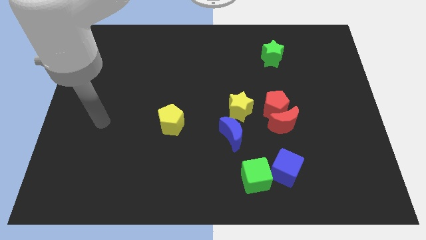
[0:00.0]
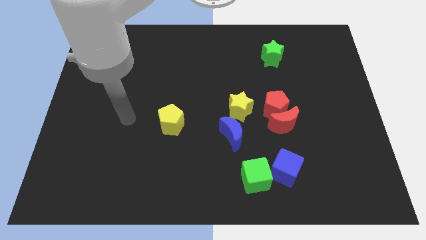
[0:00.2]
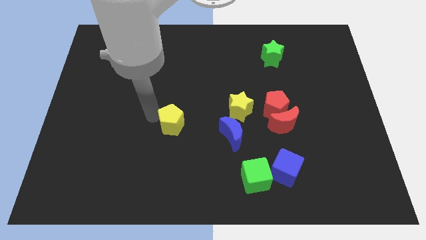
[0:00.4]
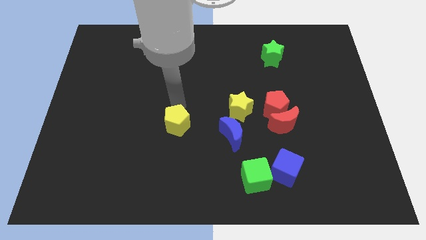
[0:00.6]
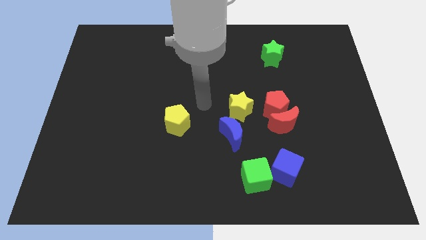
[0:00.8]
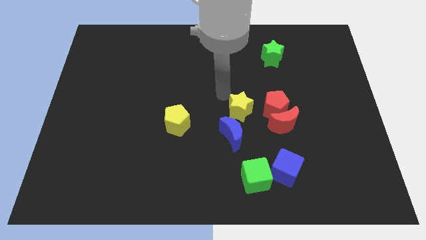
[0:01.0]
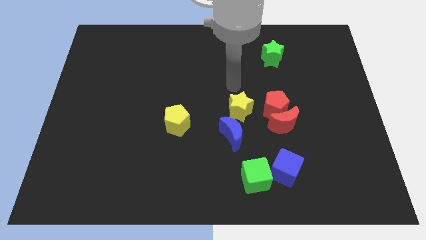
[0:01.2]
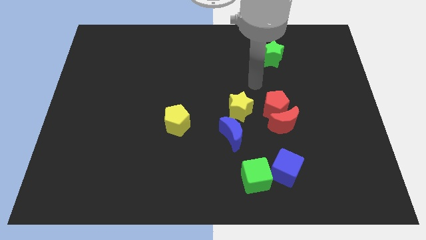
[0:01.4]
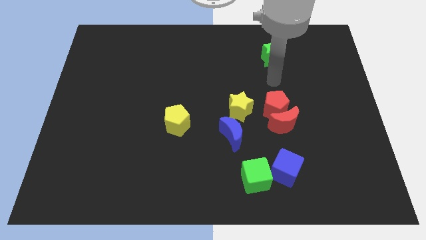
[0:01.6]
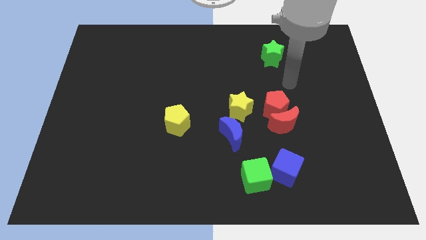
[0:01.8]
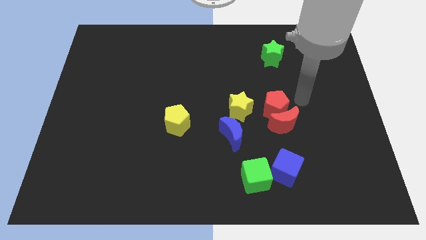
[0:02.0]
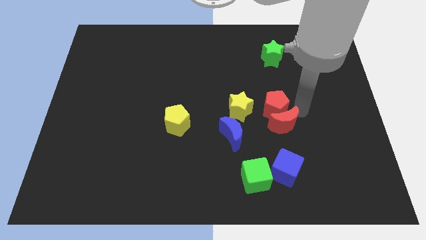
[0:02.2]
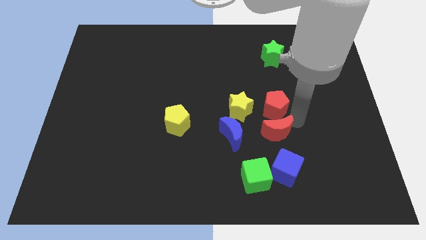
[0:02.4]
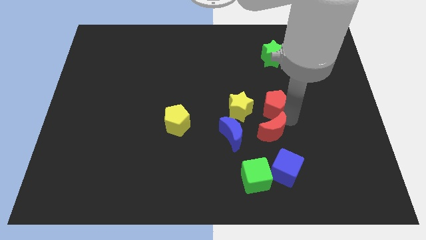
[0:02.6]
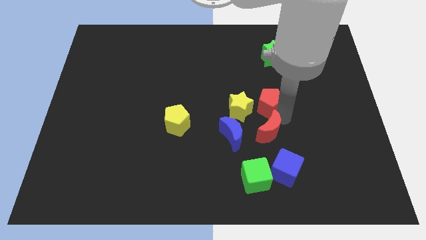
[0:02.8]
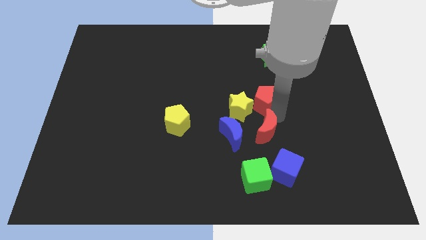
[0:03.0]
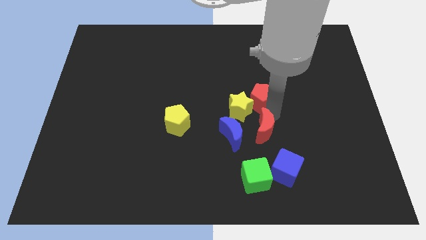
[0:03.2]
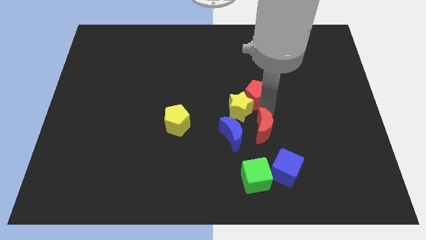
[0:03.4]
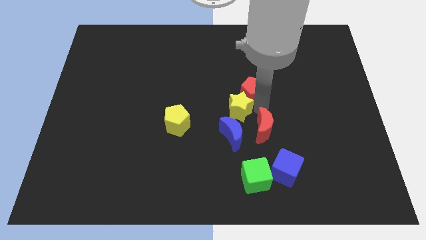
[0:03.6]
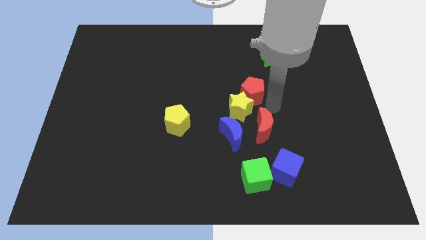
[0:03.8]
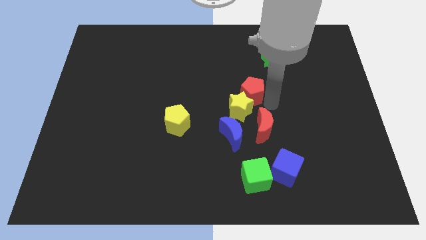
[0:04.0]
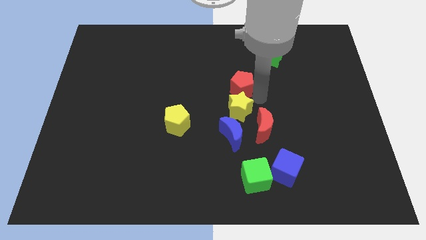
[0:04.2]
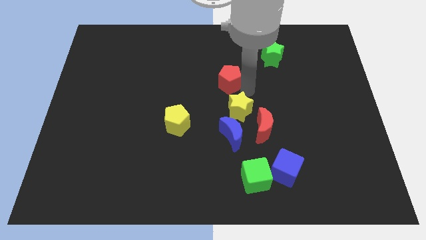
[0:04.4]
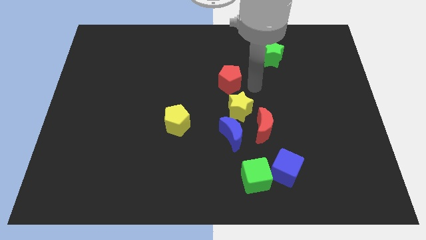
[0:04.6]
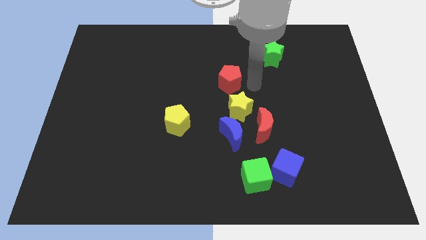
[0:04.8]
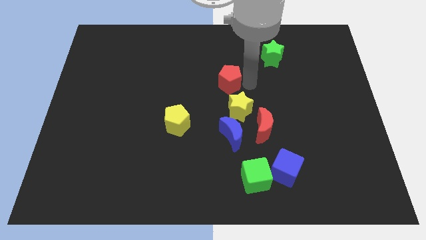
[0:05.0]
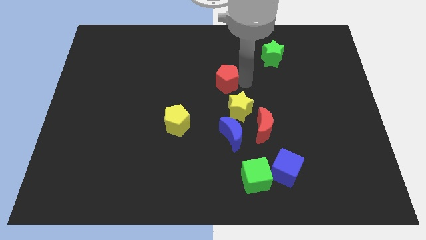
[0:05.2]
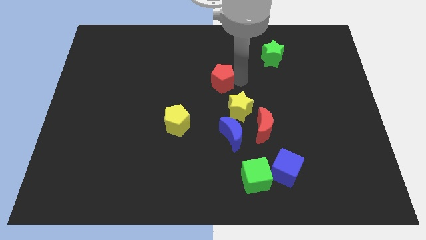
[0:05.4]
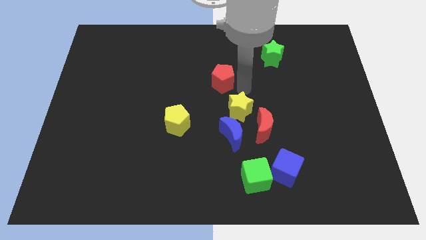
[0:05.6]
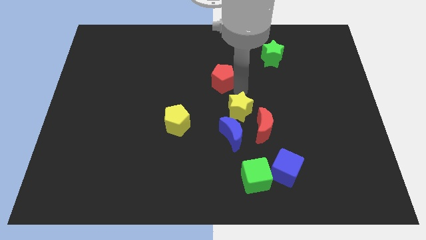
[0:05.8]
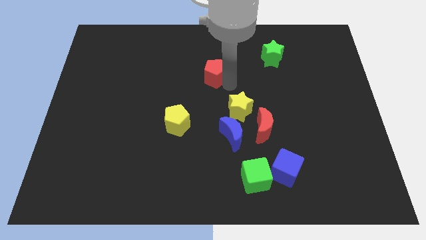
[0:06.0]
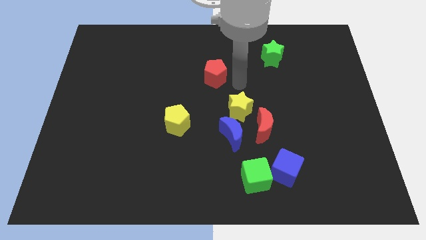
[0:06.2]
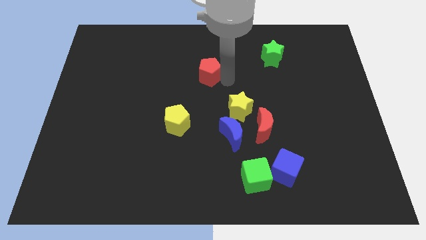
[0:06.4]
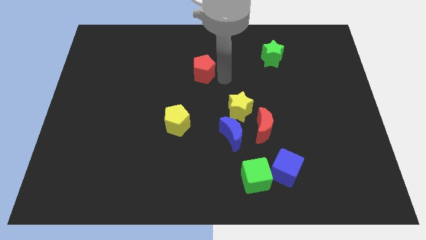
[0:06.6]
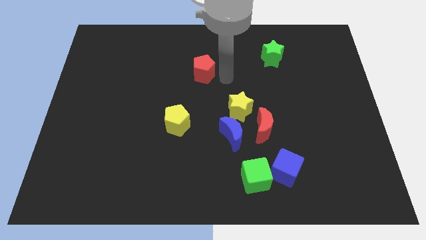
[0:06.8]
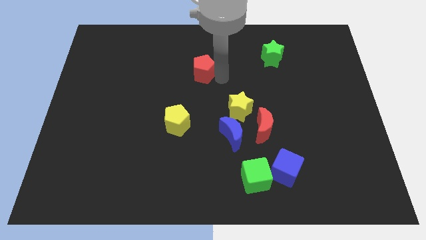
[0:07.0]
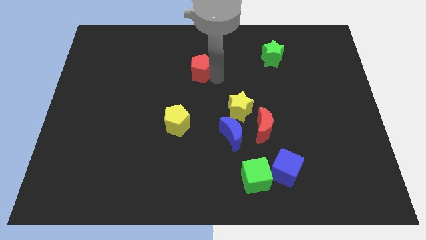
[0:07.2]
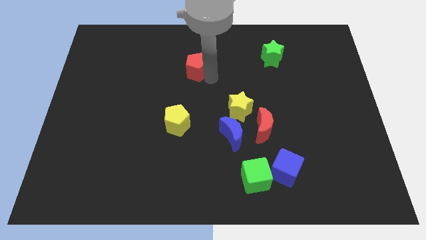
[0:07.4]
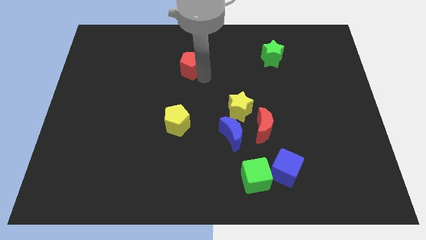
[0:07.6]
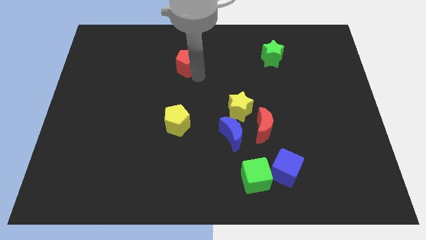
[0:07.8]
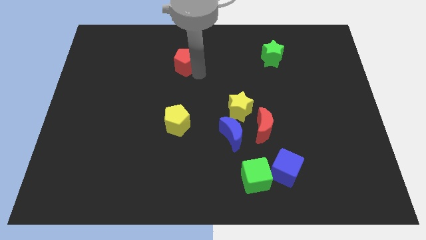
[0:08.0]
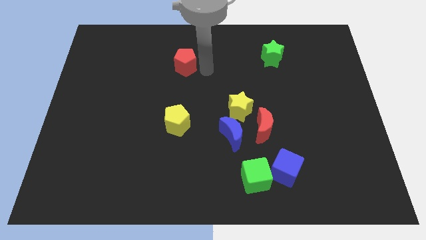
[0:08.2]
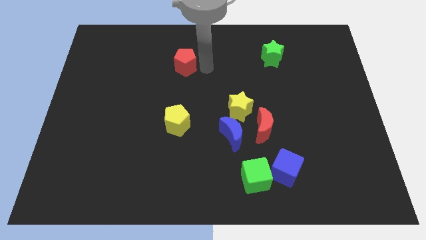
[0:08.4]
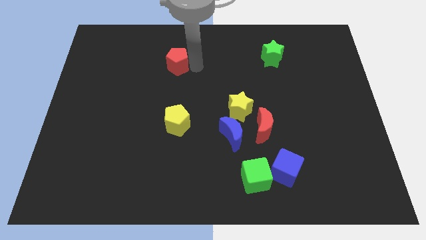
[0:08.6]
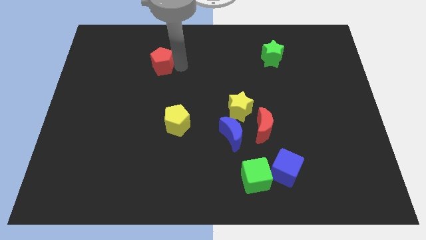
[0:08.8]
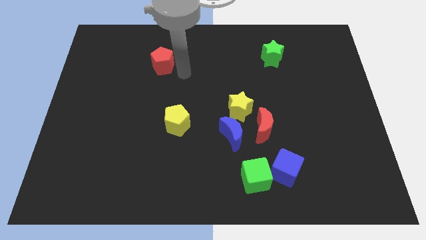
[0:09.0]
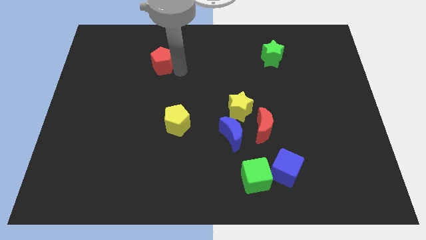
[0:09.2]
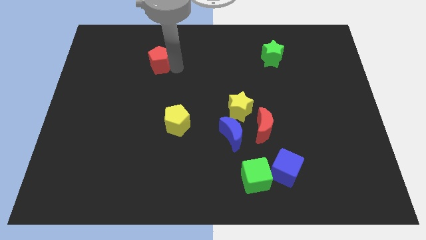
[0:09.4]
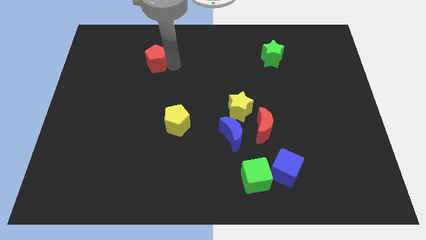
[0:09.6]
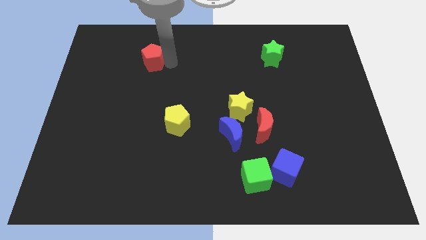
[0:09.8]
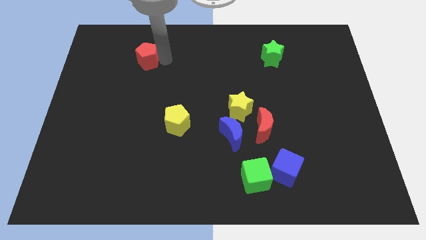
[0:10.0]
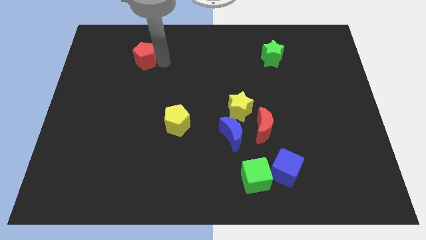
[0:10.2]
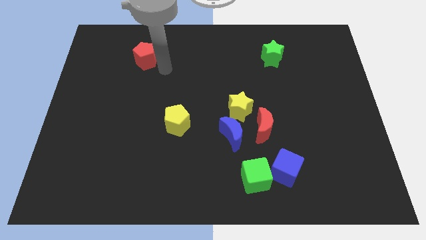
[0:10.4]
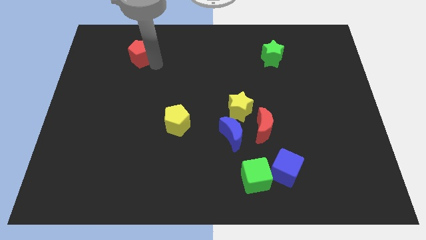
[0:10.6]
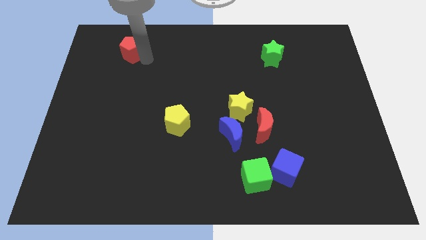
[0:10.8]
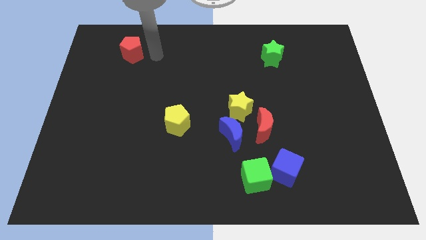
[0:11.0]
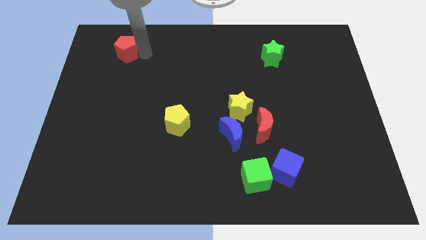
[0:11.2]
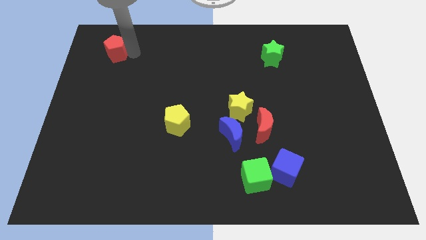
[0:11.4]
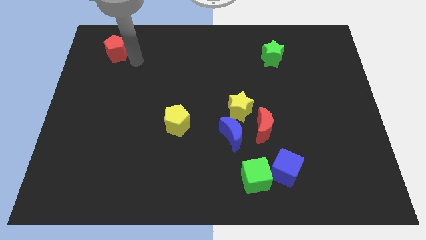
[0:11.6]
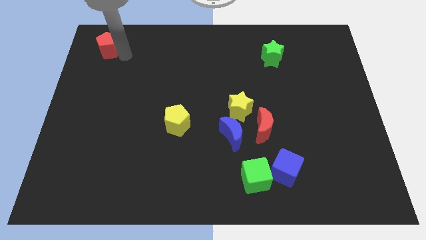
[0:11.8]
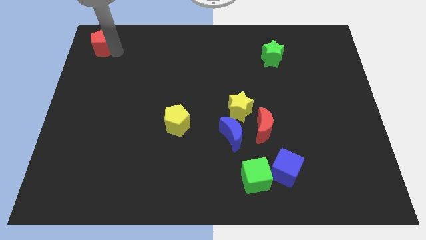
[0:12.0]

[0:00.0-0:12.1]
put the red pentagon to the top left of the board

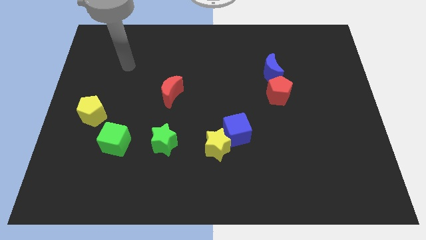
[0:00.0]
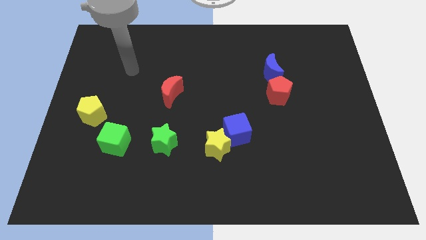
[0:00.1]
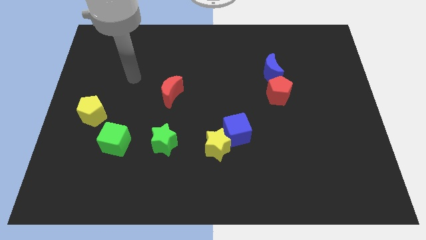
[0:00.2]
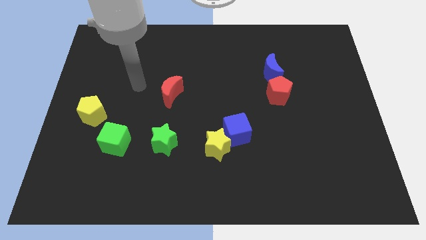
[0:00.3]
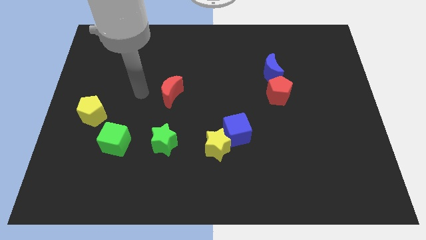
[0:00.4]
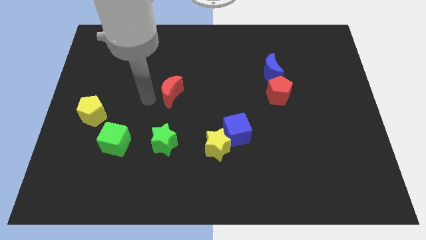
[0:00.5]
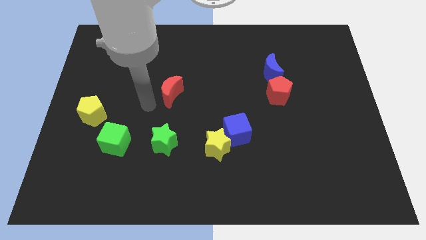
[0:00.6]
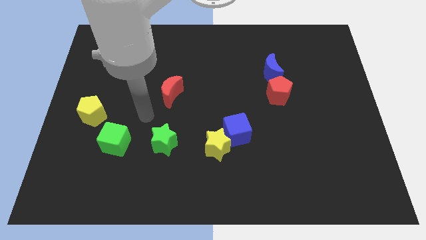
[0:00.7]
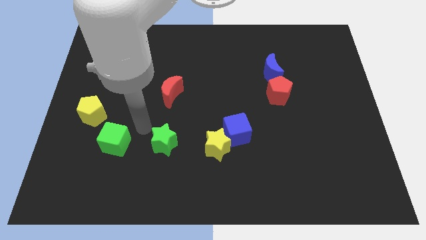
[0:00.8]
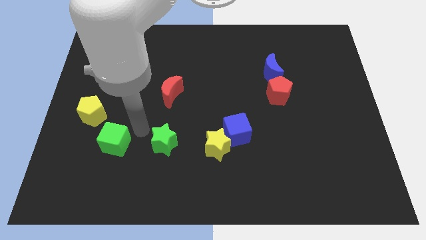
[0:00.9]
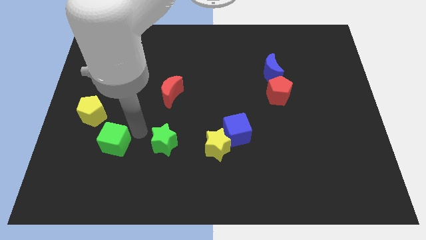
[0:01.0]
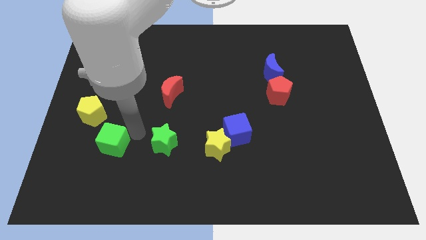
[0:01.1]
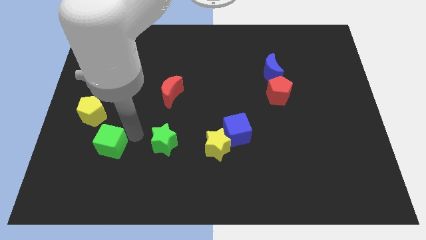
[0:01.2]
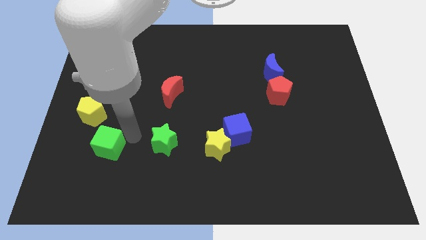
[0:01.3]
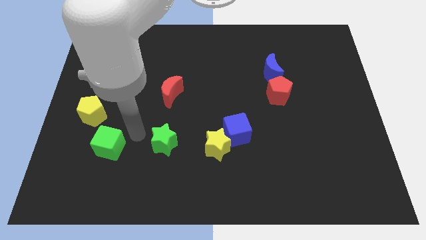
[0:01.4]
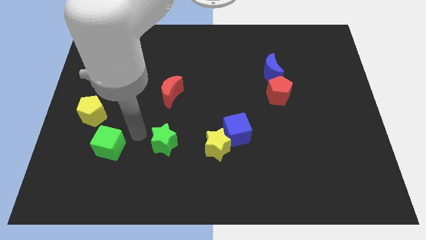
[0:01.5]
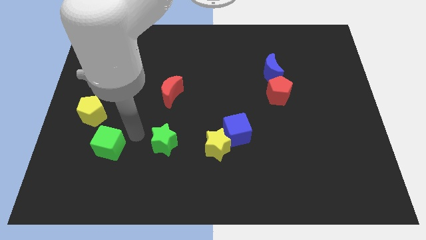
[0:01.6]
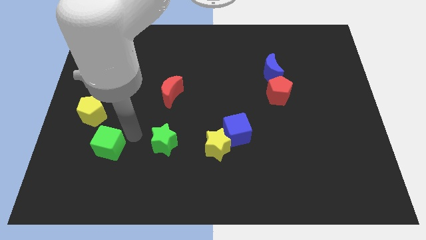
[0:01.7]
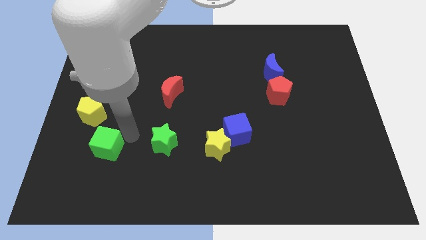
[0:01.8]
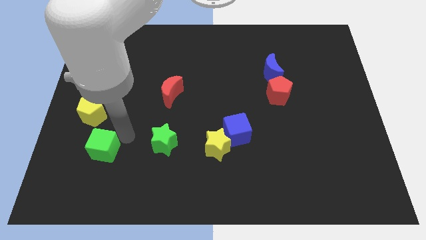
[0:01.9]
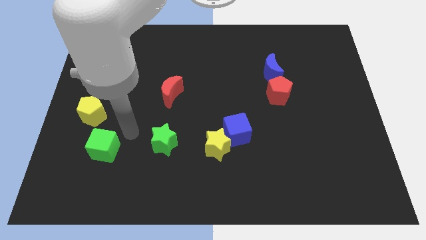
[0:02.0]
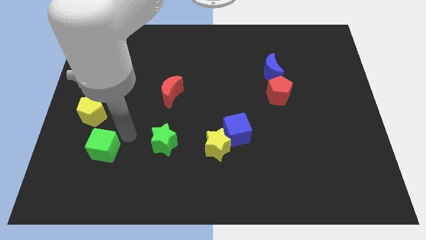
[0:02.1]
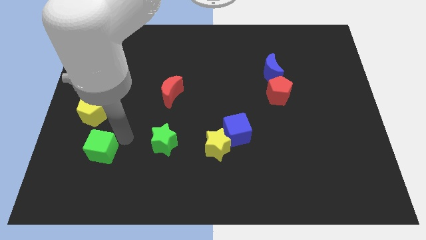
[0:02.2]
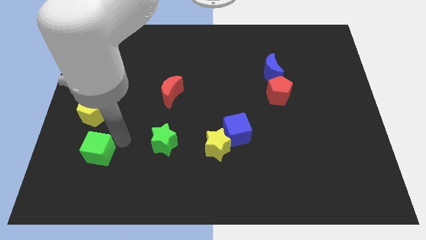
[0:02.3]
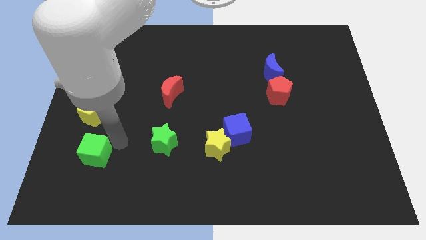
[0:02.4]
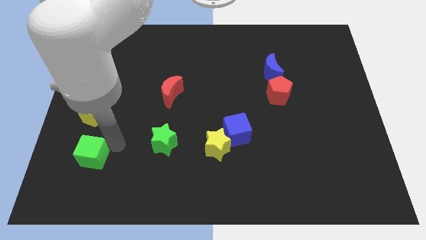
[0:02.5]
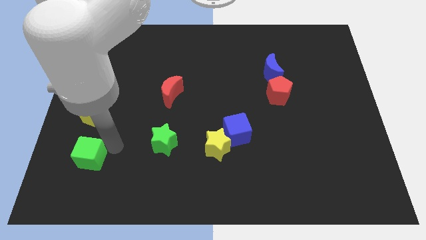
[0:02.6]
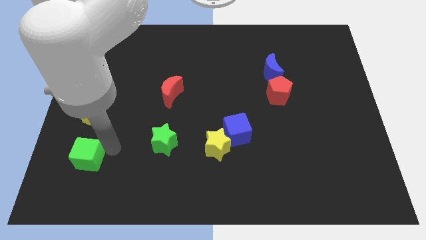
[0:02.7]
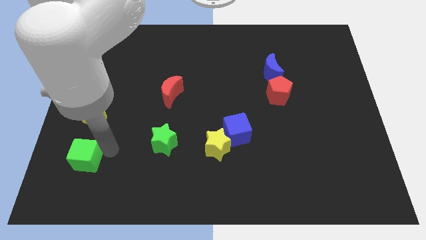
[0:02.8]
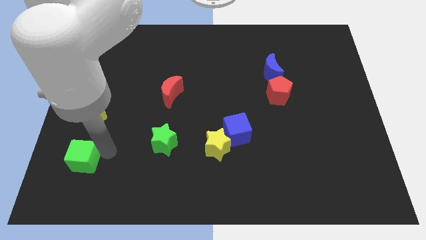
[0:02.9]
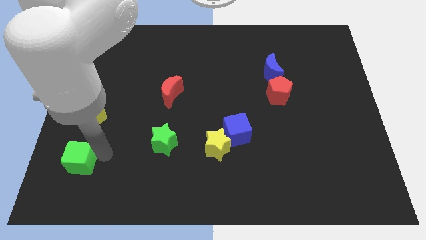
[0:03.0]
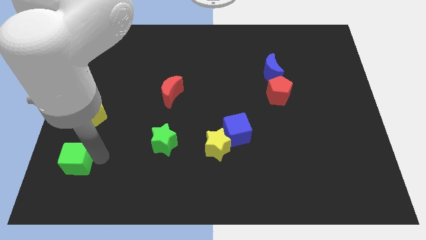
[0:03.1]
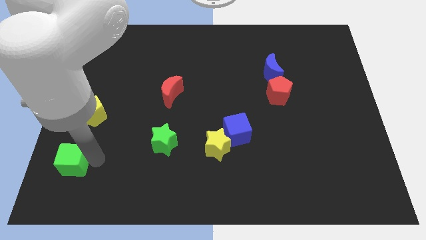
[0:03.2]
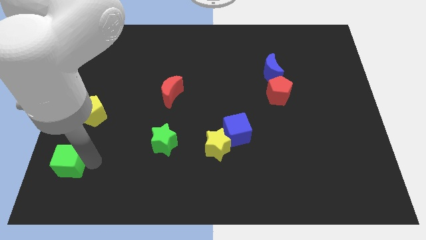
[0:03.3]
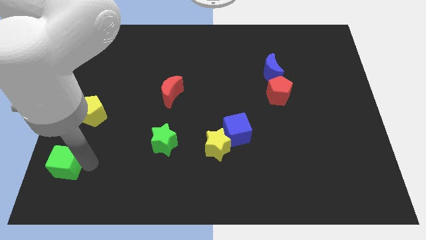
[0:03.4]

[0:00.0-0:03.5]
put the green cube to the bottom left corner
